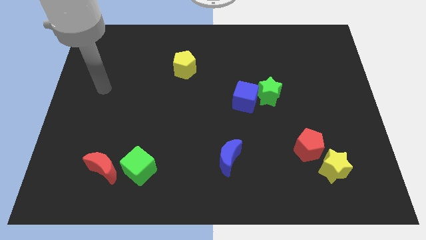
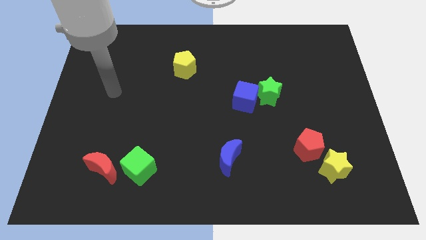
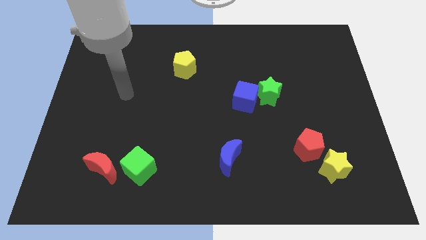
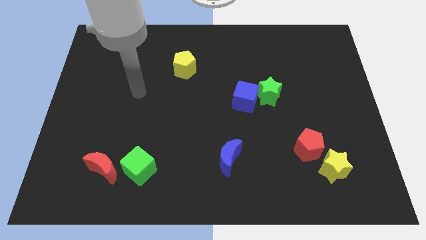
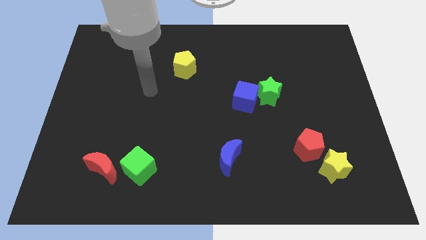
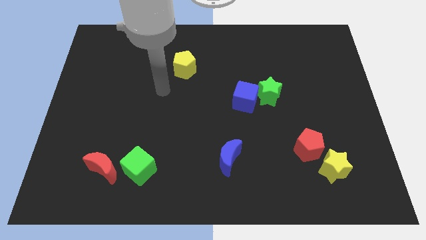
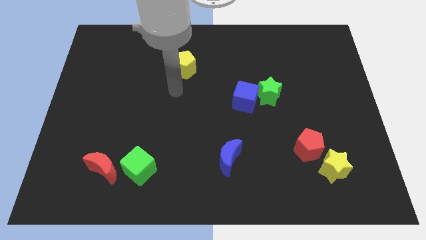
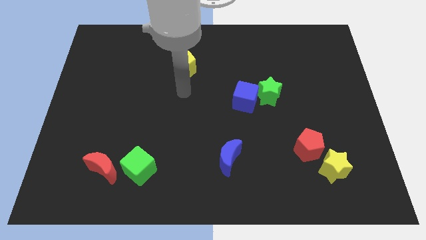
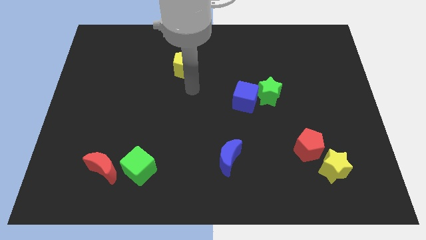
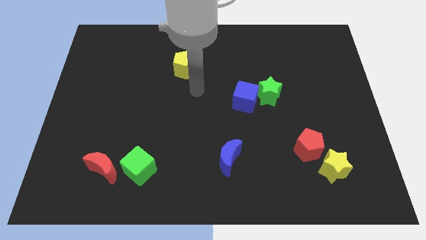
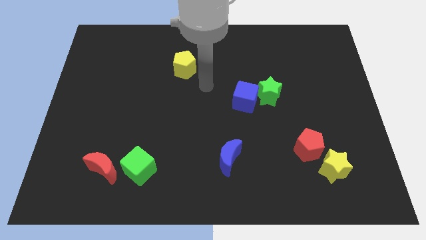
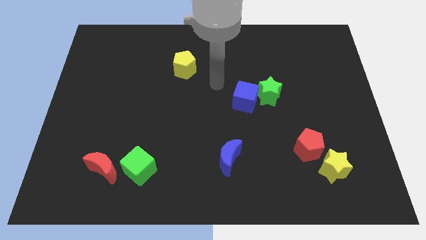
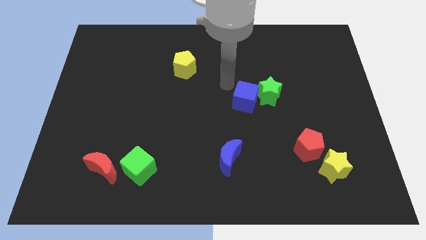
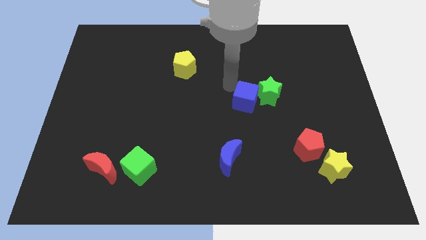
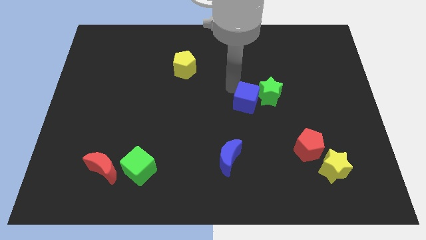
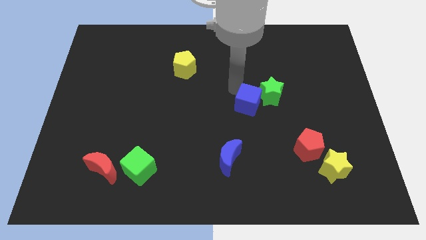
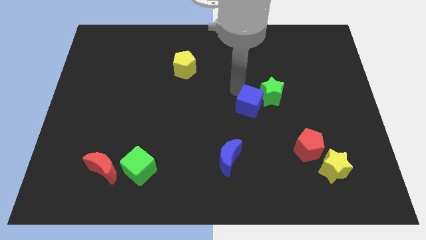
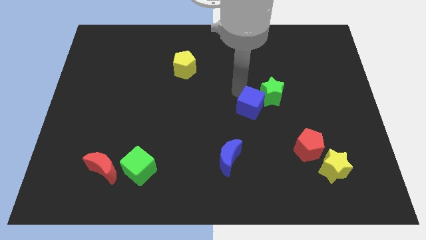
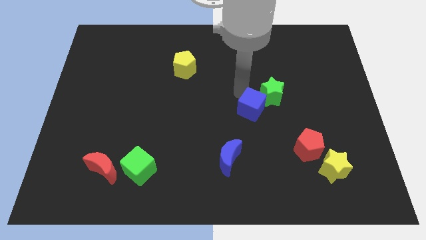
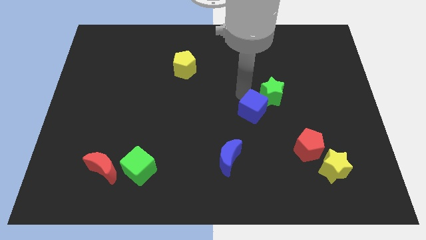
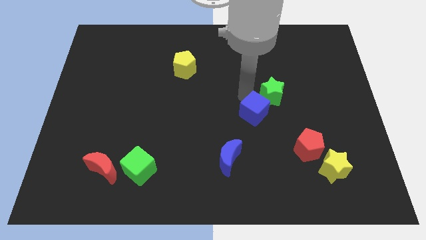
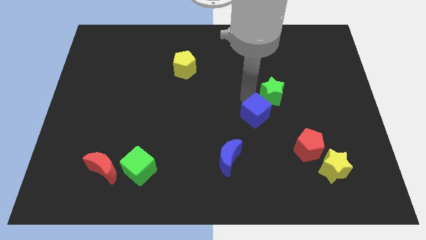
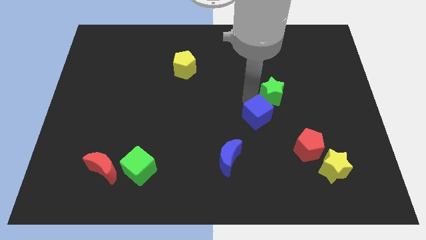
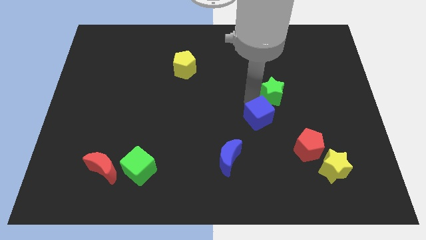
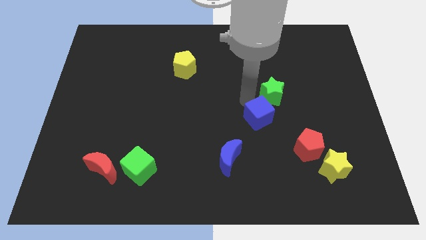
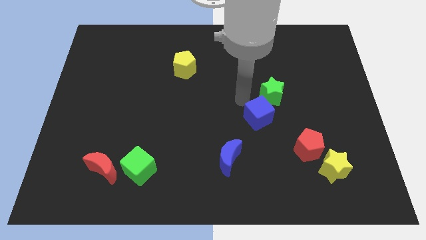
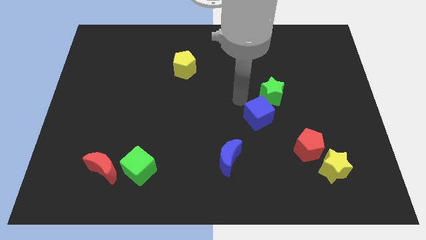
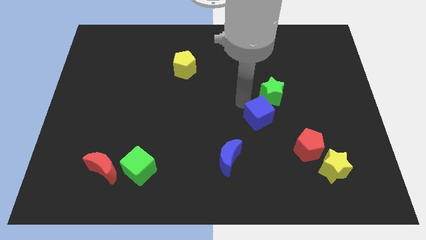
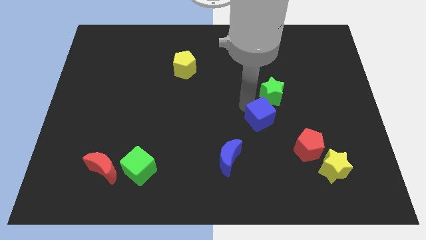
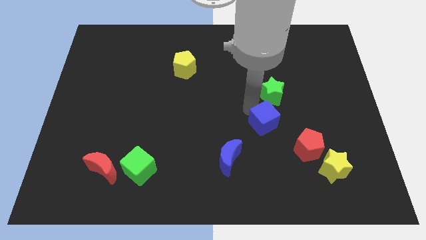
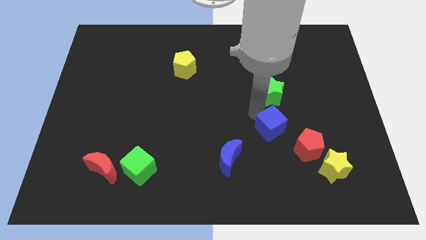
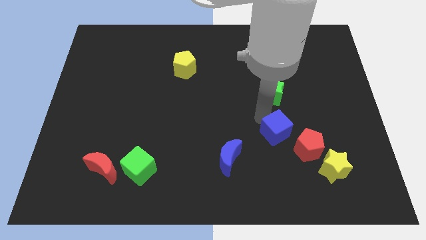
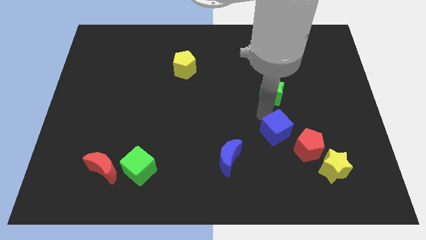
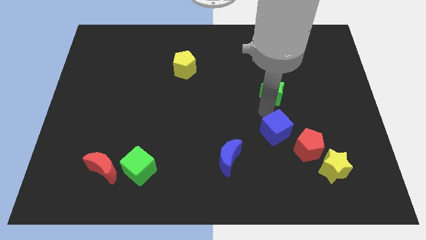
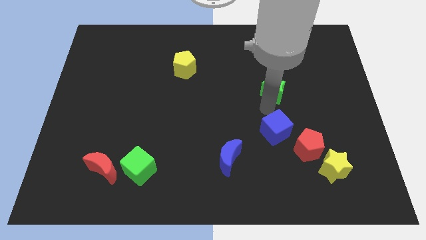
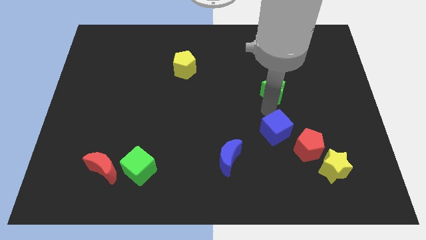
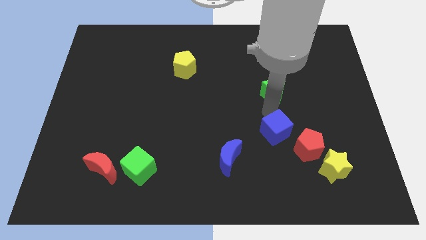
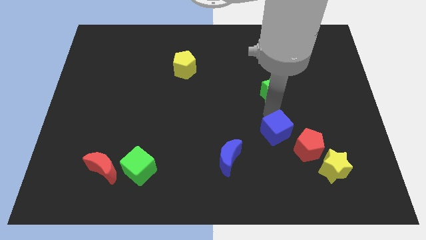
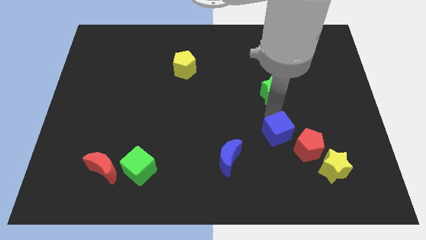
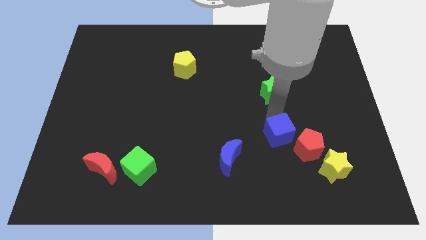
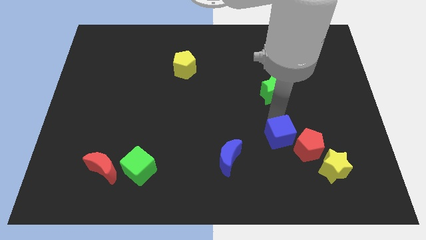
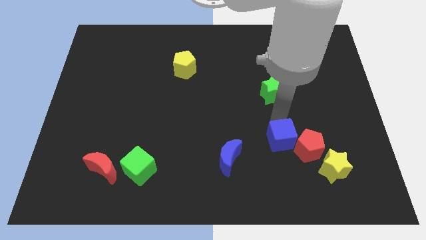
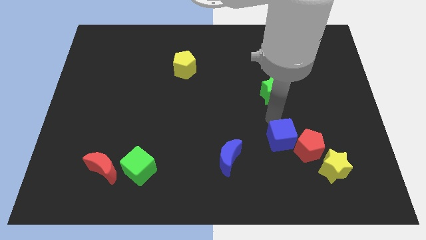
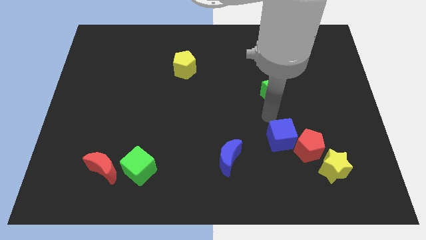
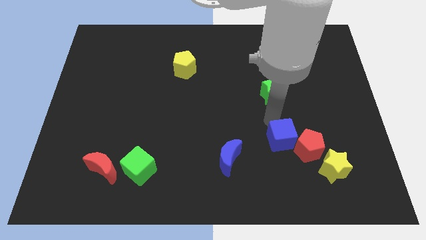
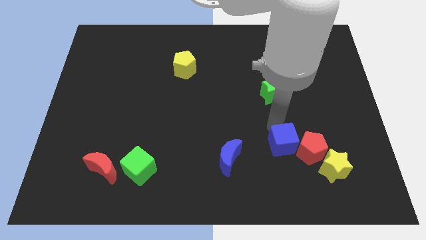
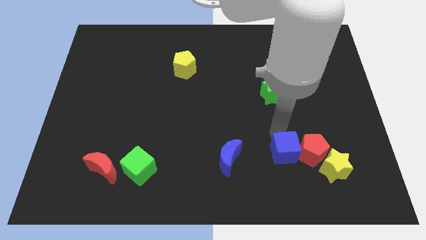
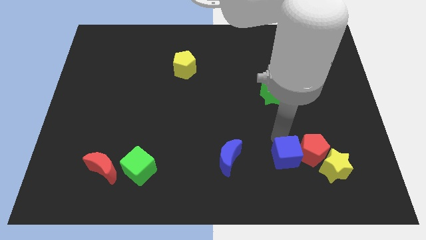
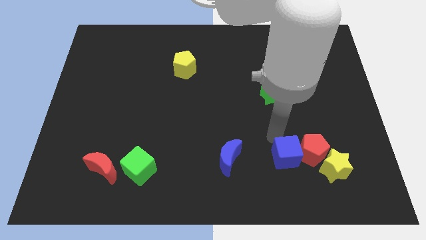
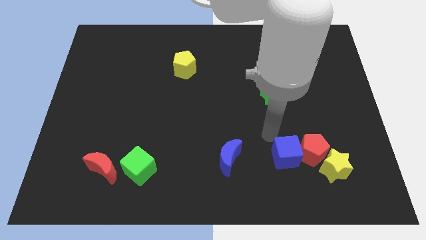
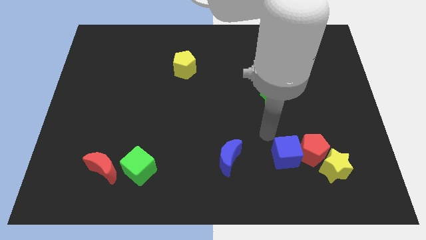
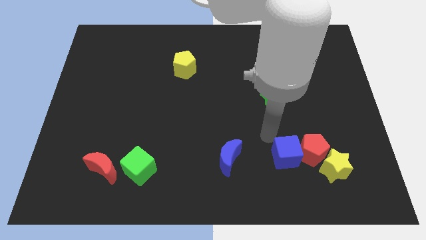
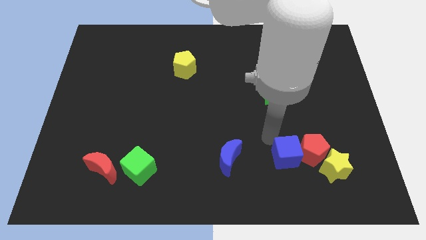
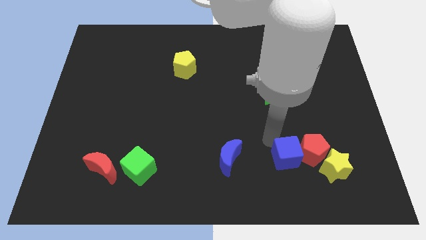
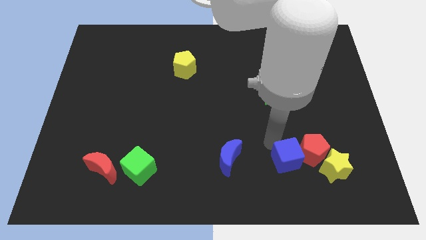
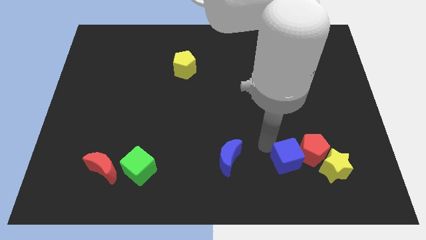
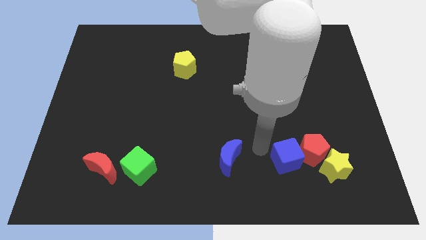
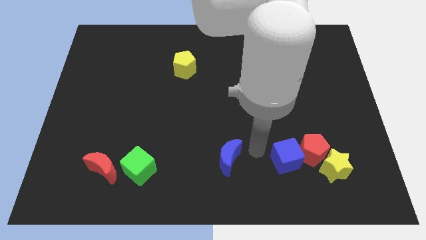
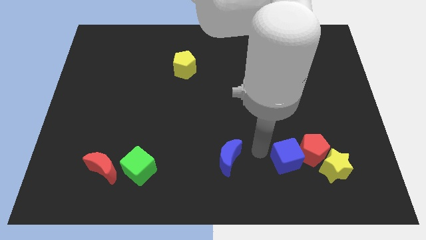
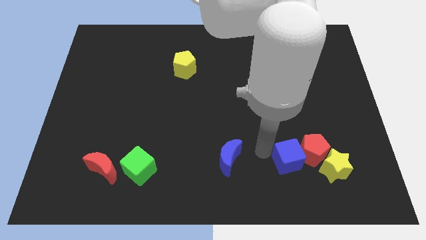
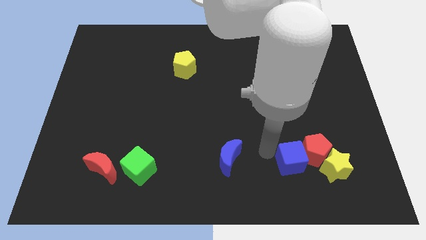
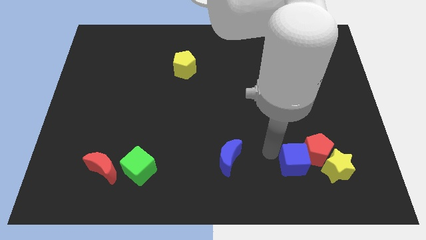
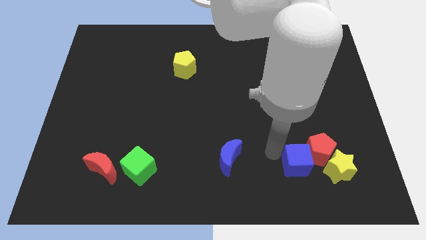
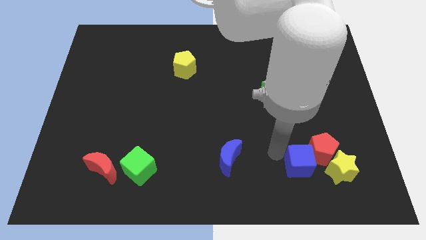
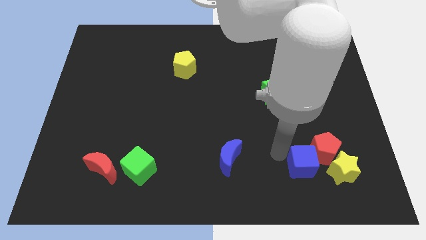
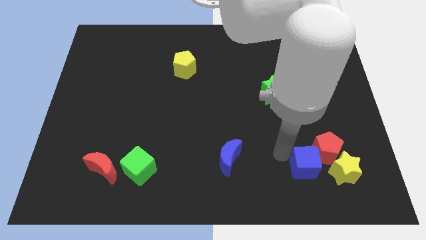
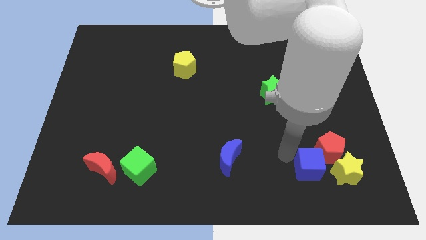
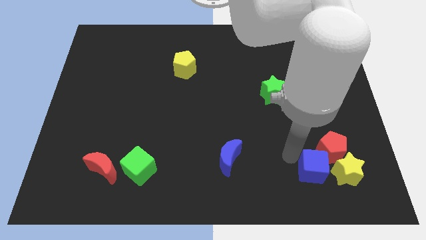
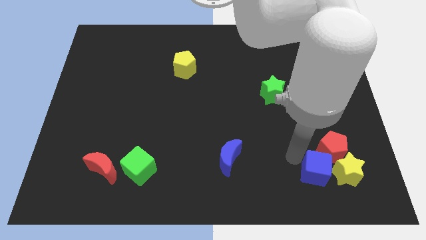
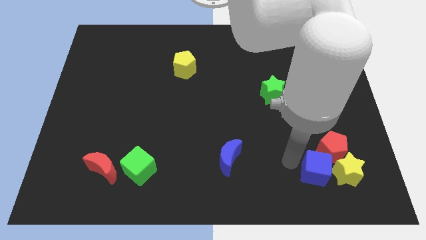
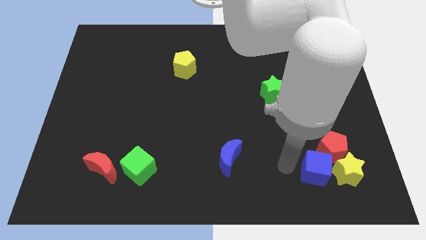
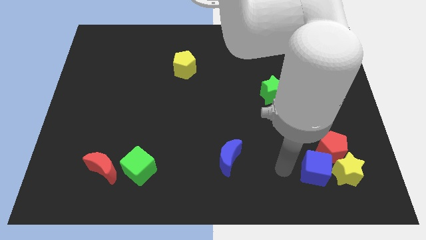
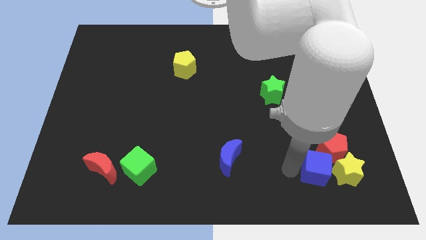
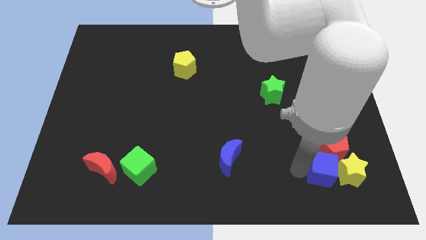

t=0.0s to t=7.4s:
slide the blue cube next to the yellow star
